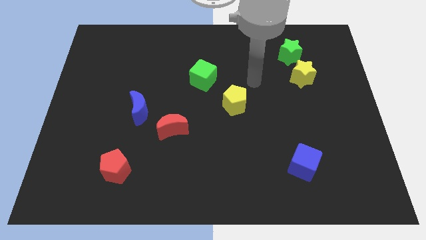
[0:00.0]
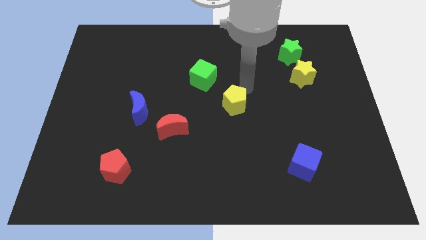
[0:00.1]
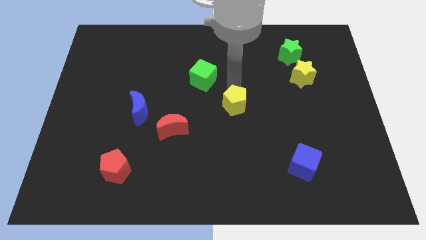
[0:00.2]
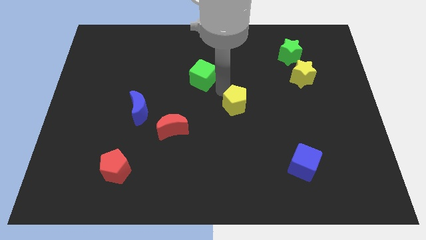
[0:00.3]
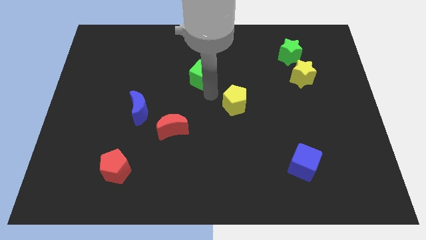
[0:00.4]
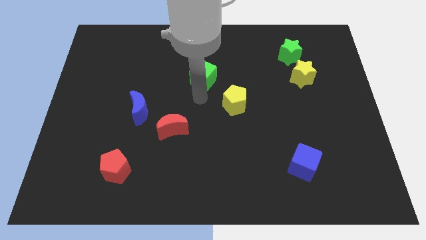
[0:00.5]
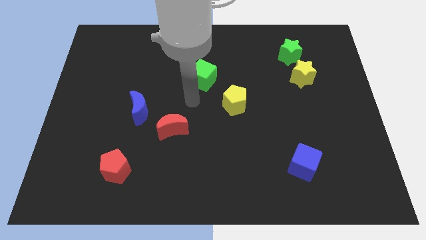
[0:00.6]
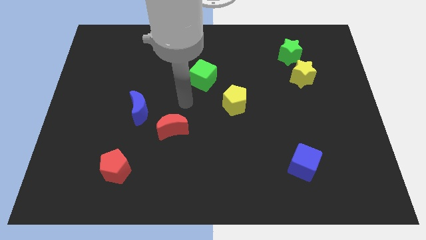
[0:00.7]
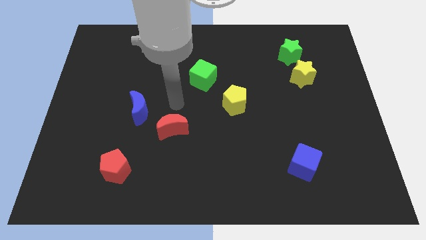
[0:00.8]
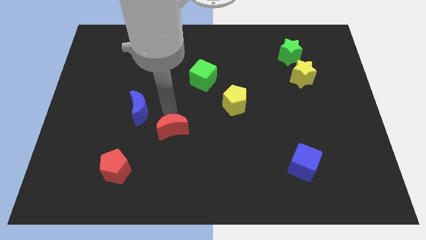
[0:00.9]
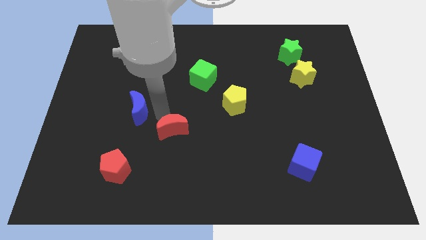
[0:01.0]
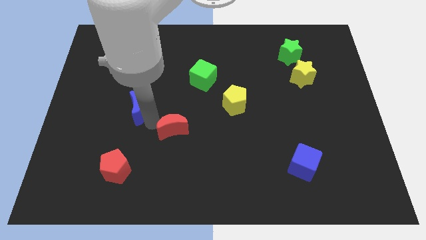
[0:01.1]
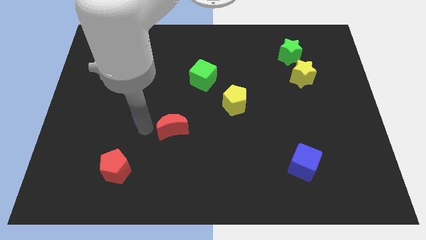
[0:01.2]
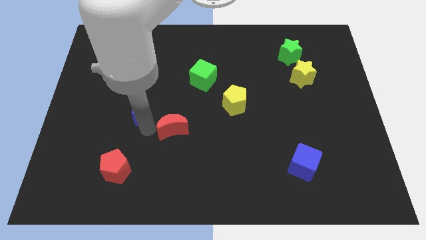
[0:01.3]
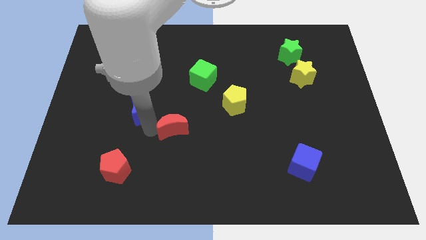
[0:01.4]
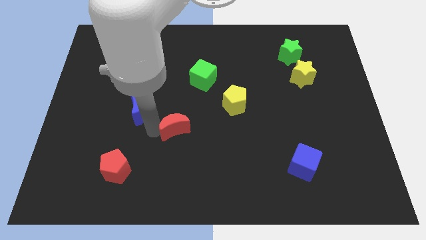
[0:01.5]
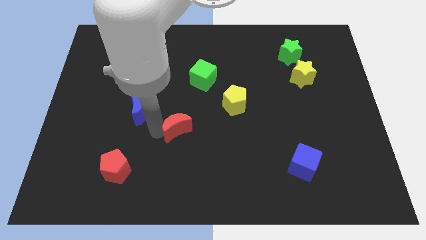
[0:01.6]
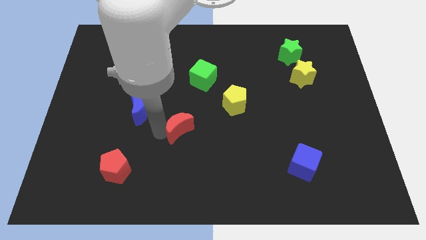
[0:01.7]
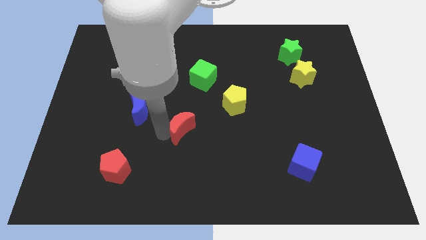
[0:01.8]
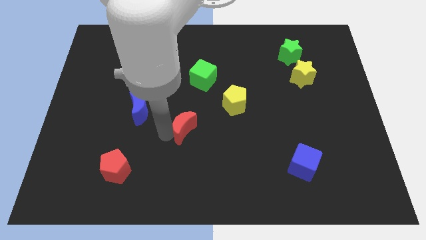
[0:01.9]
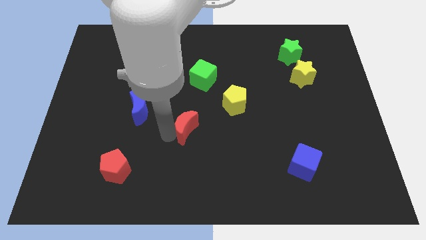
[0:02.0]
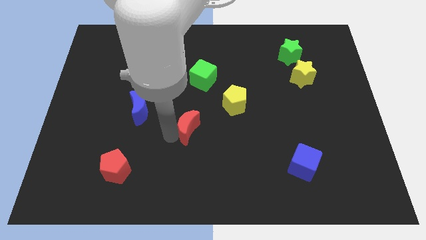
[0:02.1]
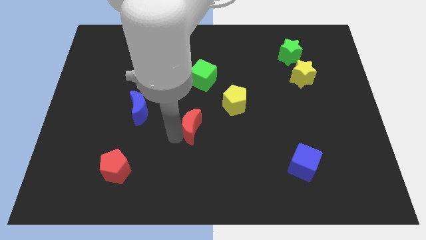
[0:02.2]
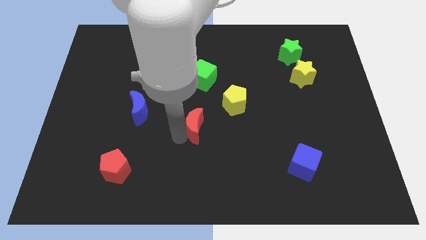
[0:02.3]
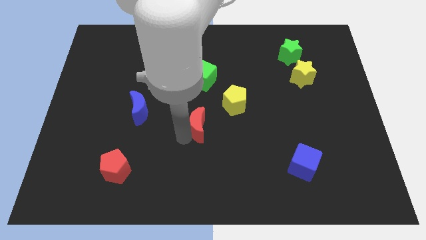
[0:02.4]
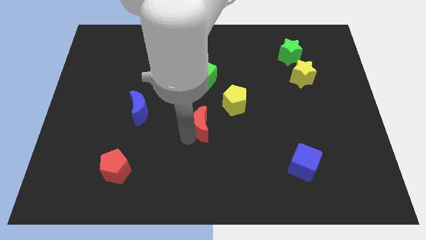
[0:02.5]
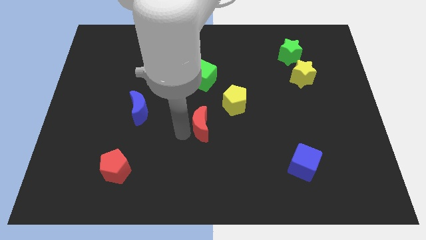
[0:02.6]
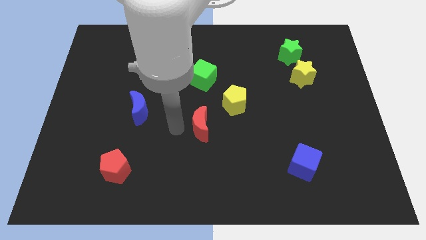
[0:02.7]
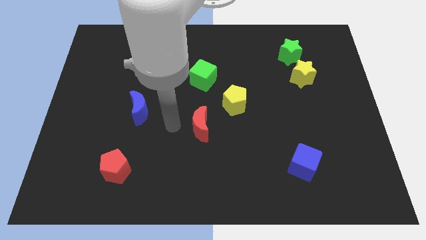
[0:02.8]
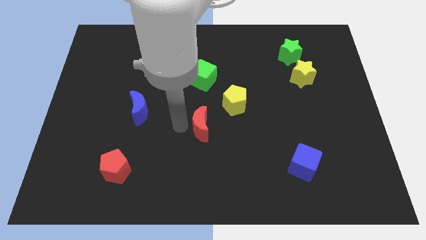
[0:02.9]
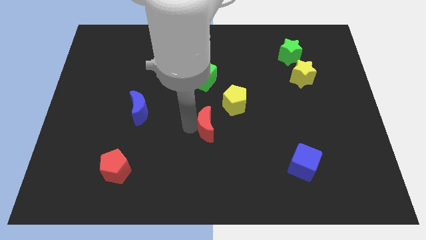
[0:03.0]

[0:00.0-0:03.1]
slightly push the red moon right

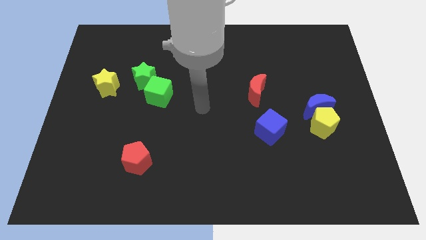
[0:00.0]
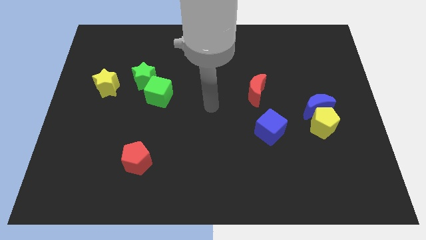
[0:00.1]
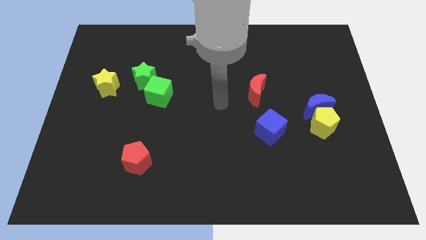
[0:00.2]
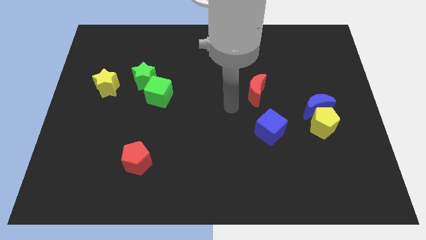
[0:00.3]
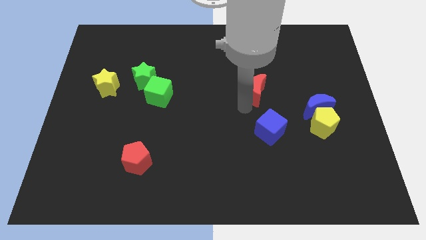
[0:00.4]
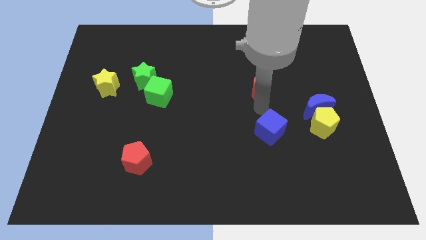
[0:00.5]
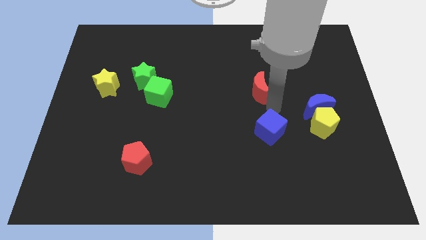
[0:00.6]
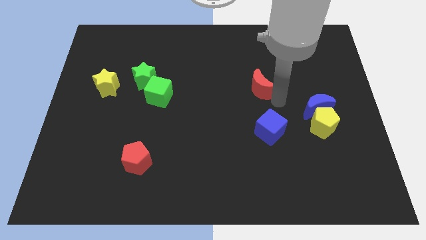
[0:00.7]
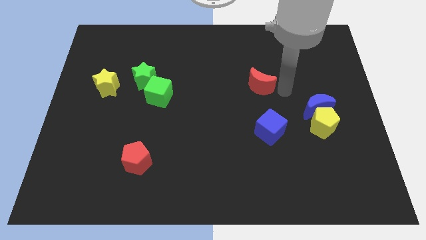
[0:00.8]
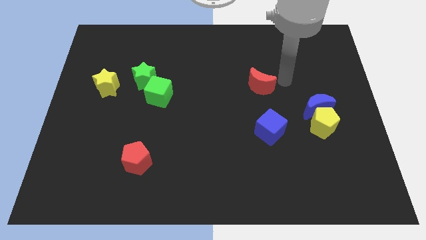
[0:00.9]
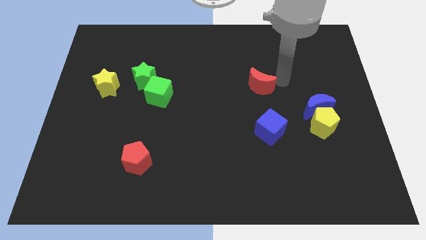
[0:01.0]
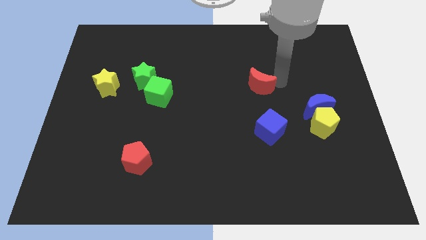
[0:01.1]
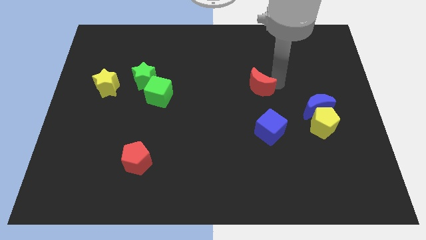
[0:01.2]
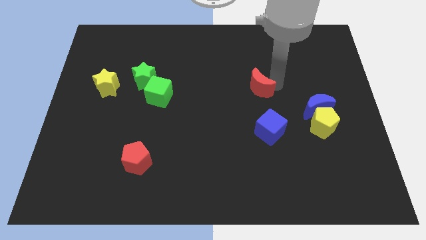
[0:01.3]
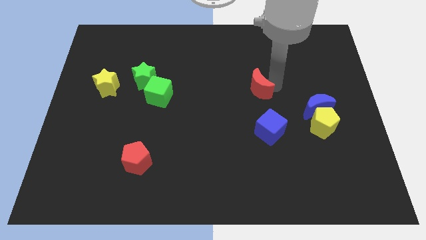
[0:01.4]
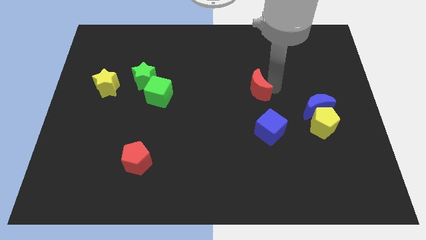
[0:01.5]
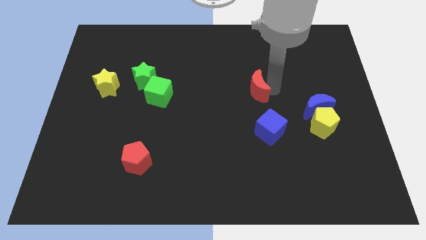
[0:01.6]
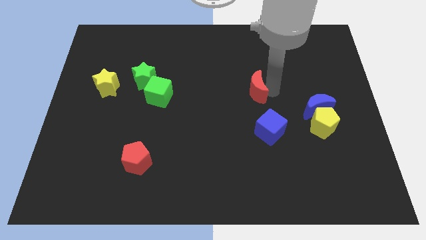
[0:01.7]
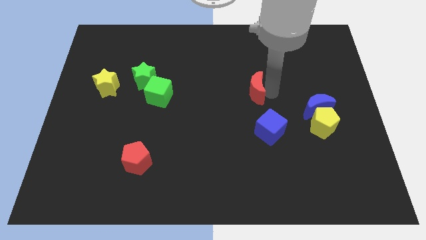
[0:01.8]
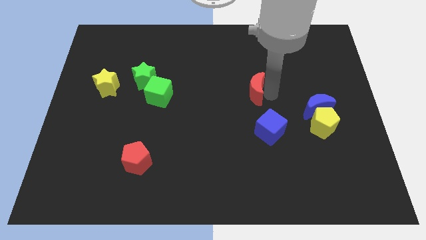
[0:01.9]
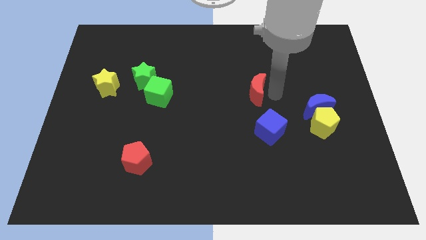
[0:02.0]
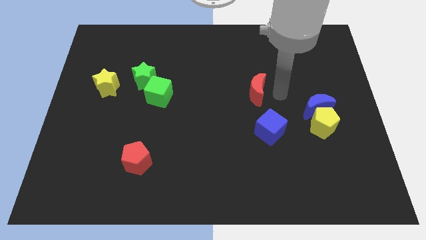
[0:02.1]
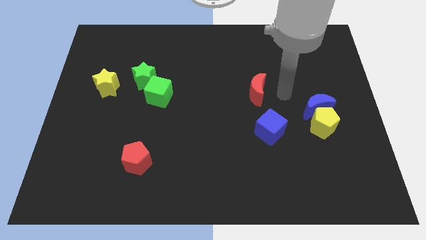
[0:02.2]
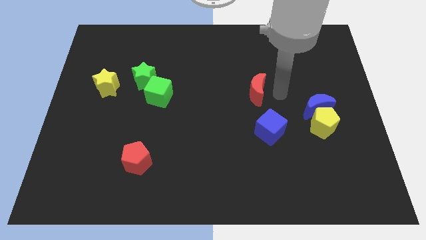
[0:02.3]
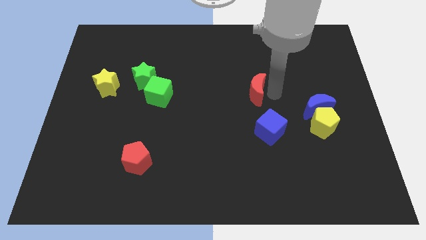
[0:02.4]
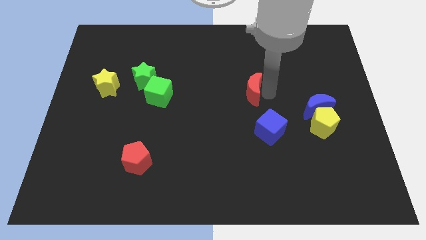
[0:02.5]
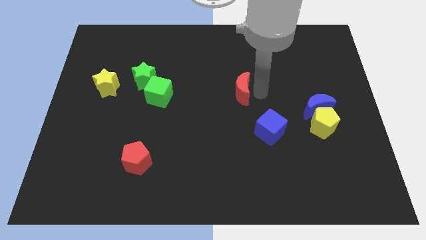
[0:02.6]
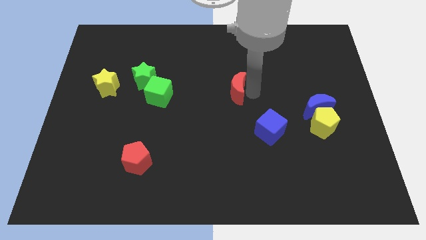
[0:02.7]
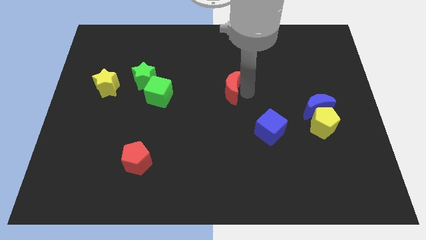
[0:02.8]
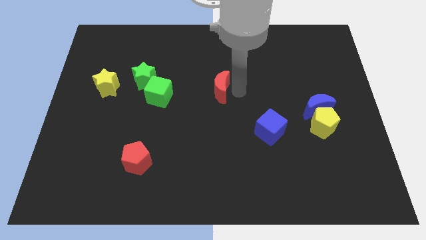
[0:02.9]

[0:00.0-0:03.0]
move the red moon to the left a little

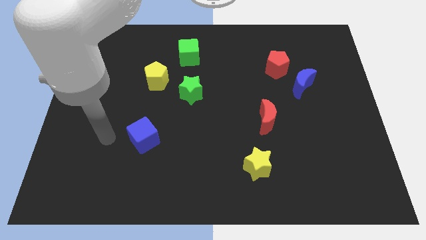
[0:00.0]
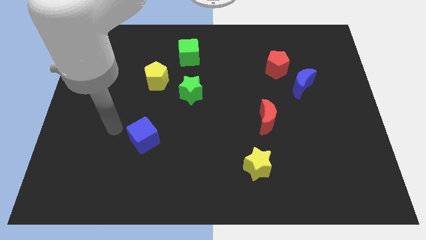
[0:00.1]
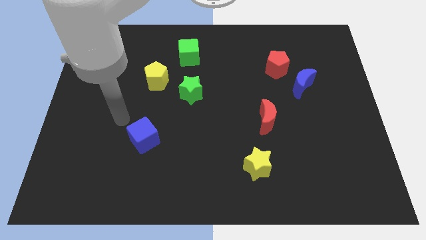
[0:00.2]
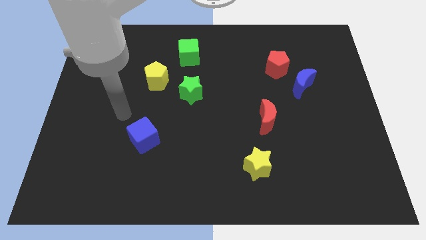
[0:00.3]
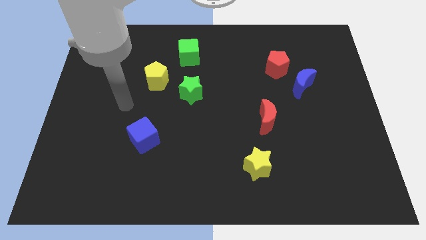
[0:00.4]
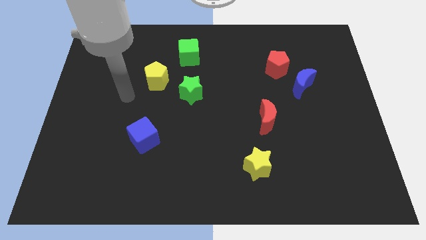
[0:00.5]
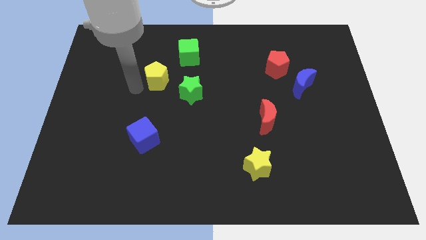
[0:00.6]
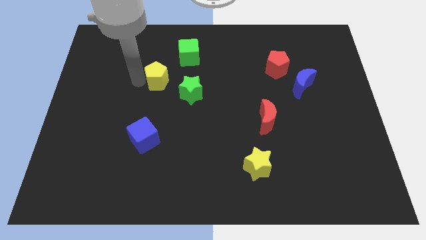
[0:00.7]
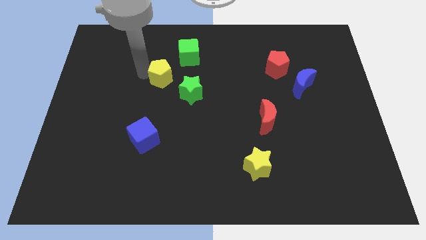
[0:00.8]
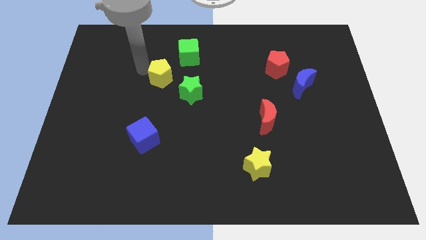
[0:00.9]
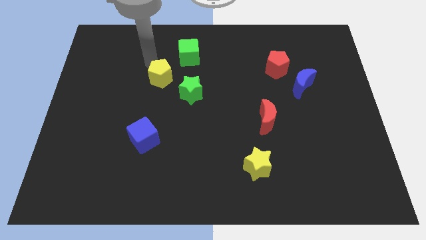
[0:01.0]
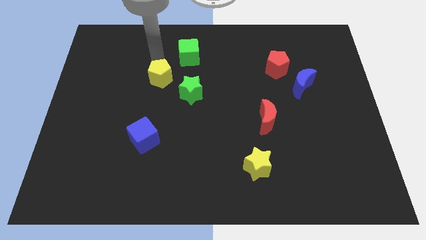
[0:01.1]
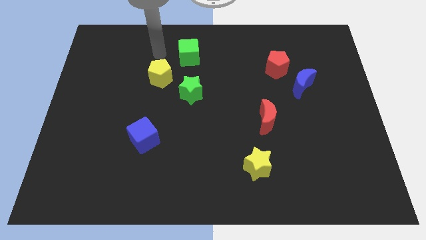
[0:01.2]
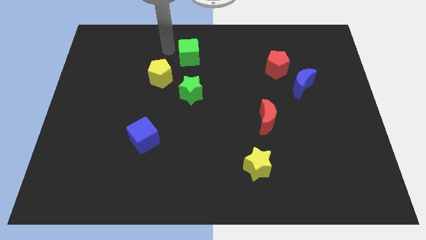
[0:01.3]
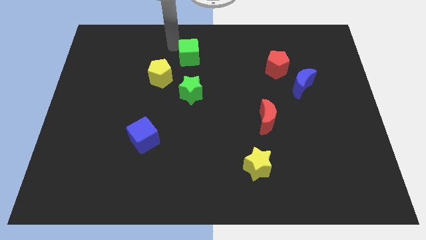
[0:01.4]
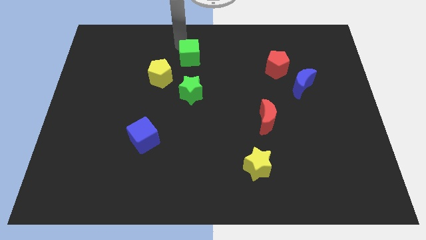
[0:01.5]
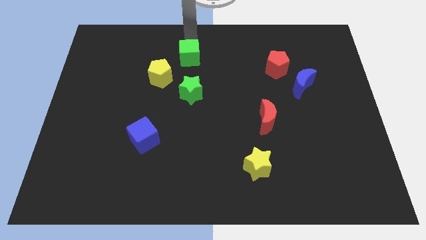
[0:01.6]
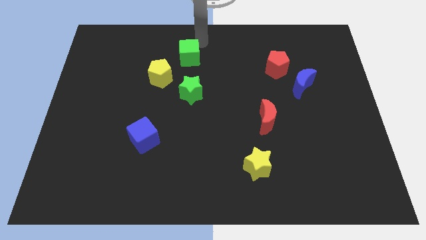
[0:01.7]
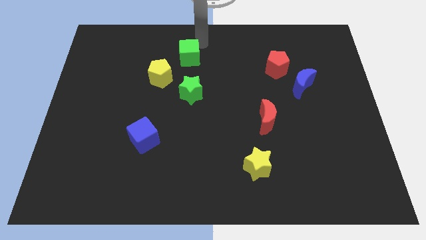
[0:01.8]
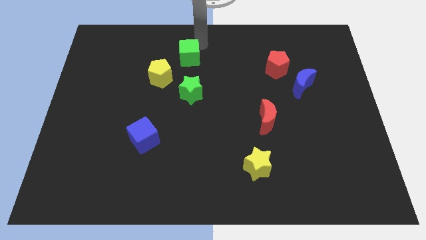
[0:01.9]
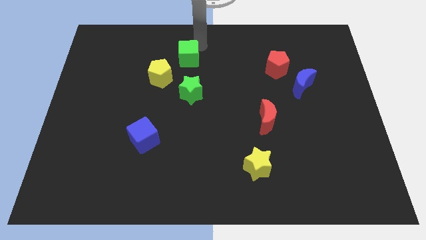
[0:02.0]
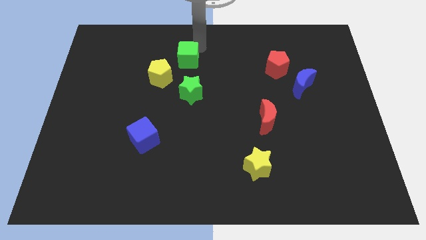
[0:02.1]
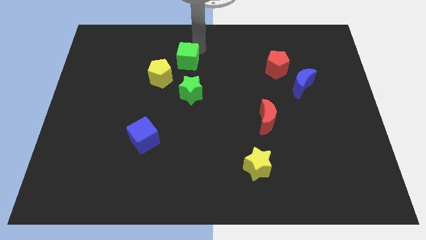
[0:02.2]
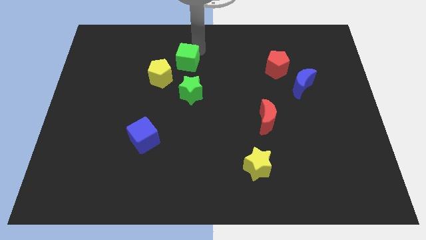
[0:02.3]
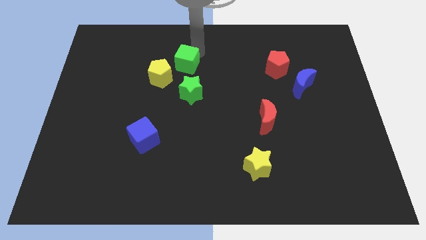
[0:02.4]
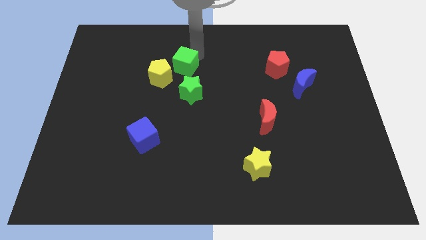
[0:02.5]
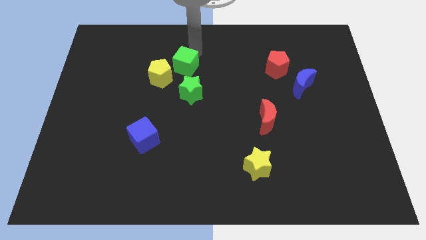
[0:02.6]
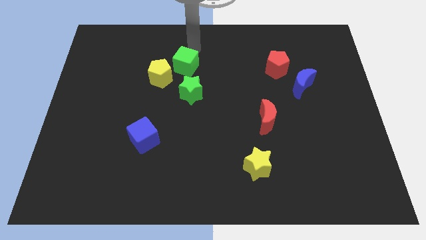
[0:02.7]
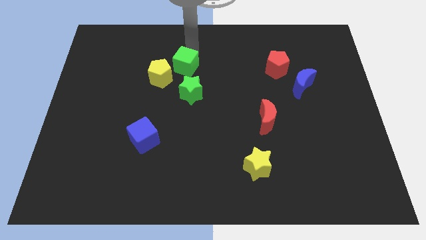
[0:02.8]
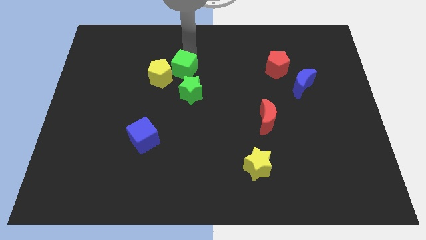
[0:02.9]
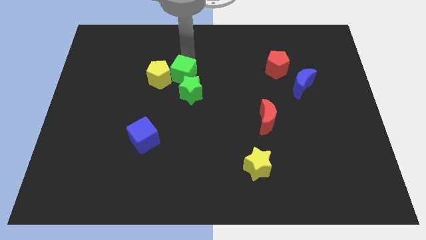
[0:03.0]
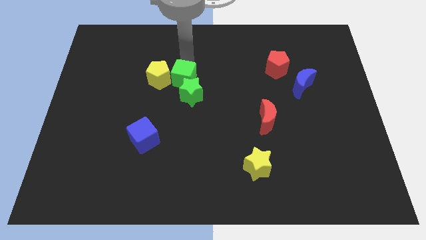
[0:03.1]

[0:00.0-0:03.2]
slightly move the green cube down
